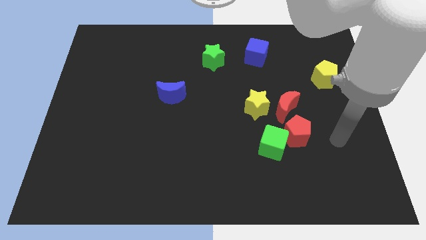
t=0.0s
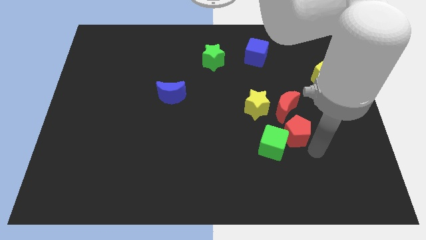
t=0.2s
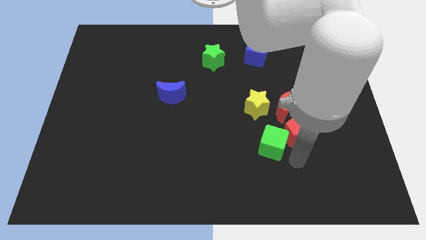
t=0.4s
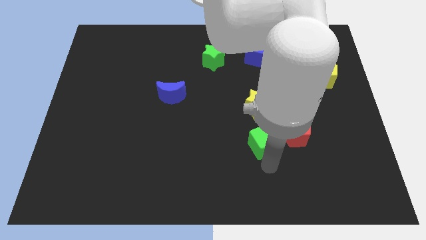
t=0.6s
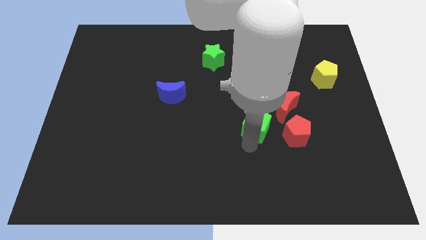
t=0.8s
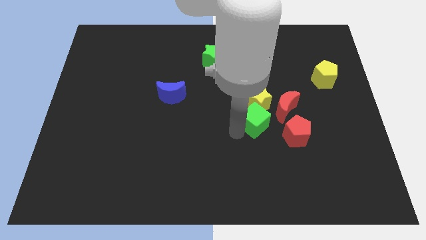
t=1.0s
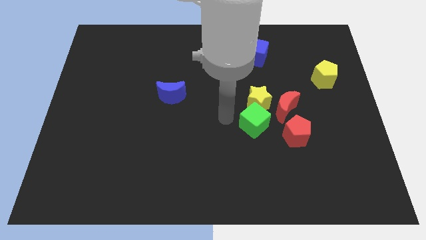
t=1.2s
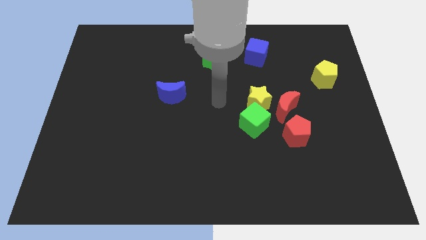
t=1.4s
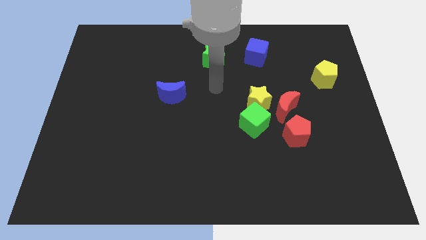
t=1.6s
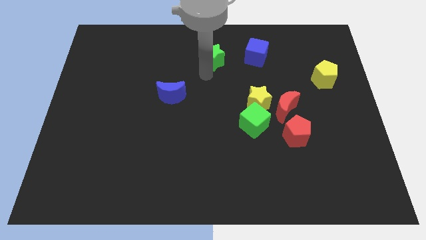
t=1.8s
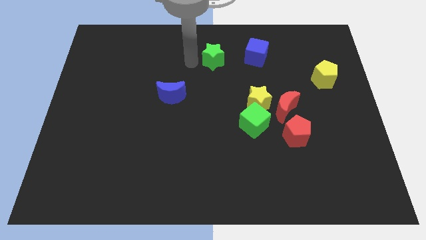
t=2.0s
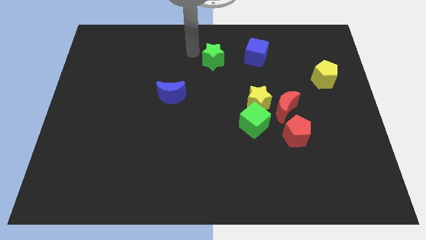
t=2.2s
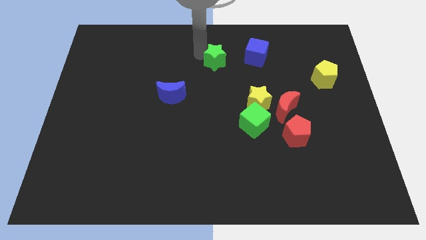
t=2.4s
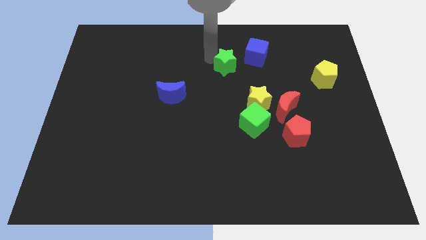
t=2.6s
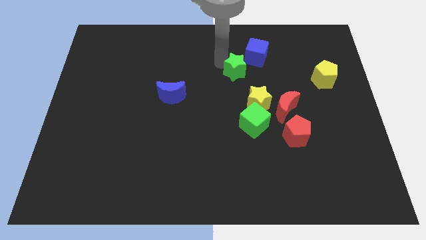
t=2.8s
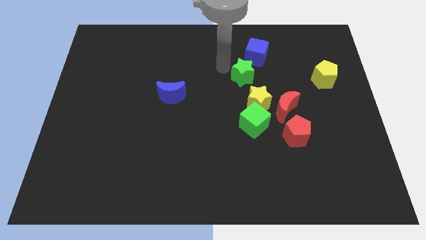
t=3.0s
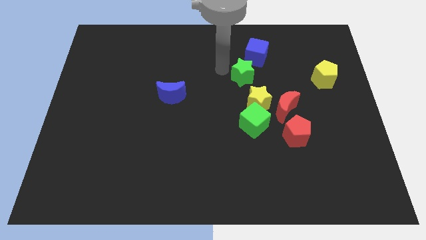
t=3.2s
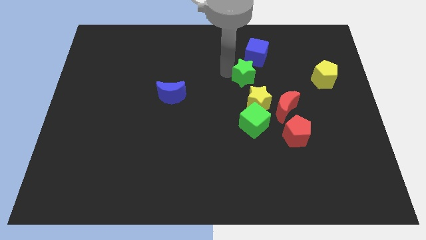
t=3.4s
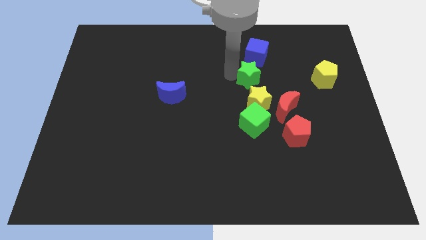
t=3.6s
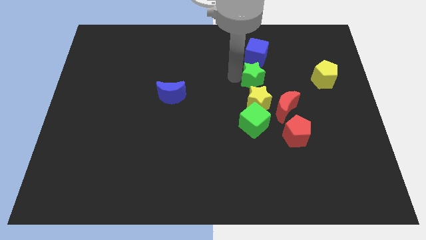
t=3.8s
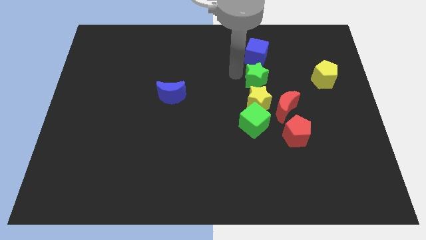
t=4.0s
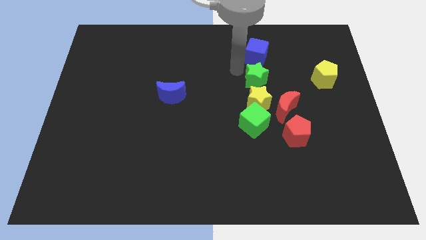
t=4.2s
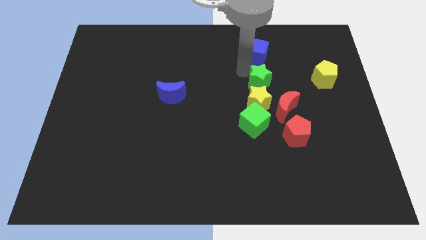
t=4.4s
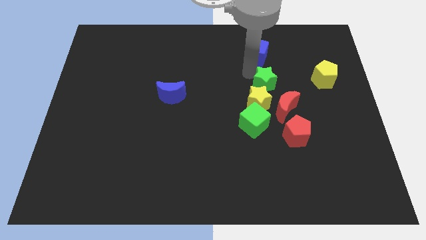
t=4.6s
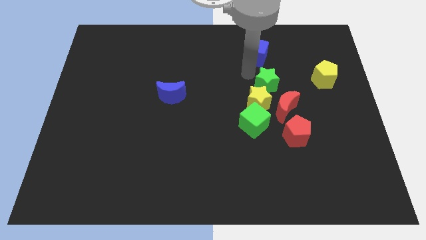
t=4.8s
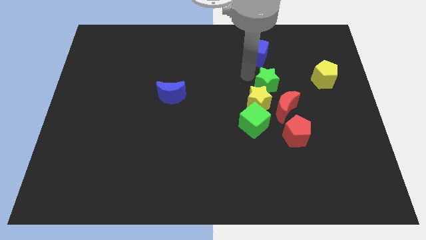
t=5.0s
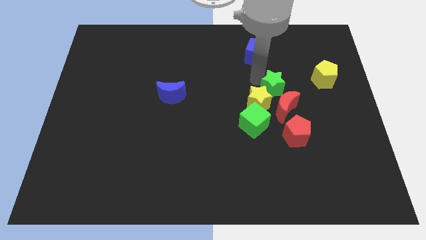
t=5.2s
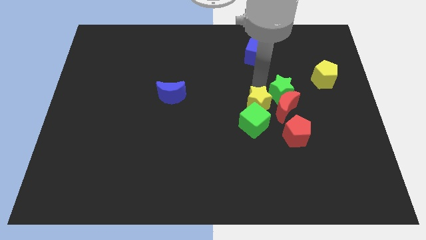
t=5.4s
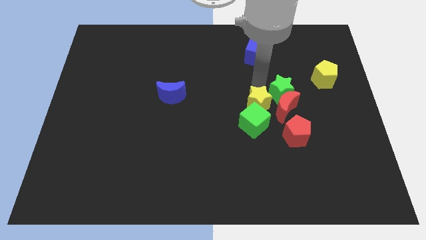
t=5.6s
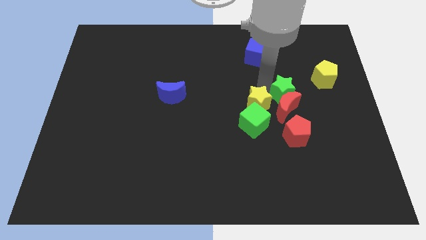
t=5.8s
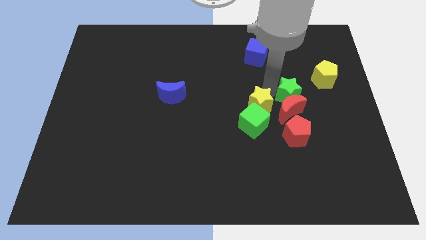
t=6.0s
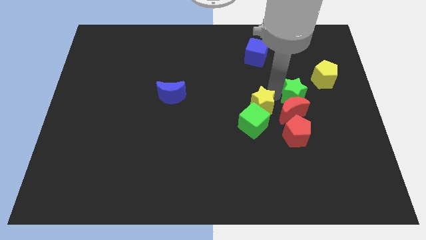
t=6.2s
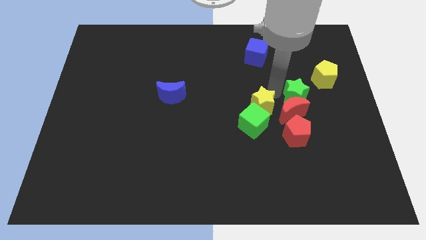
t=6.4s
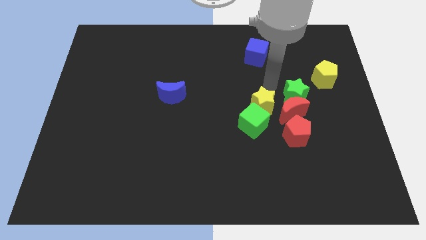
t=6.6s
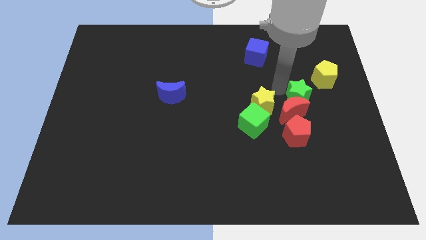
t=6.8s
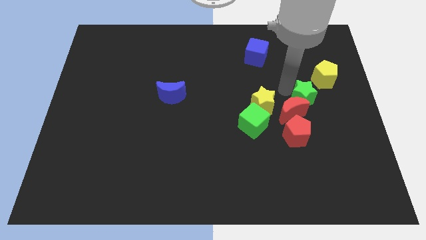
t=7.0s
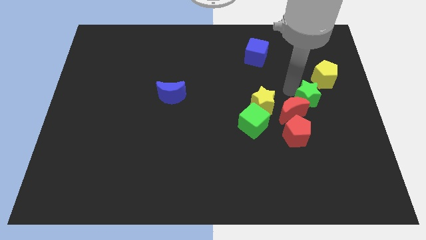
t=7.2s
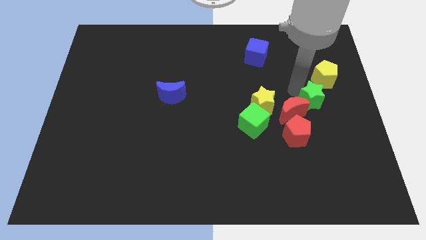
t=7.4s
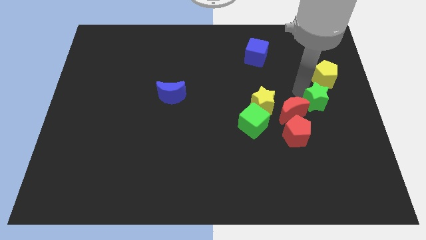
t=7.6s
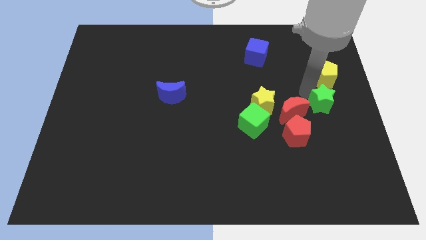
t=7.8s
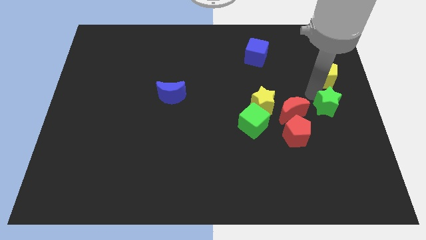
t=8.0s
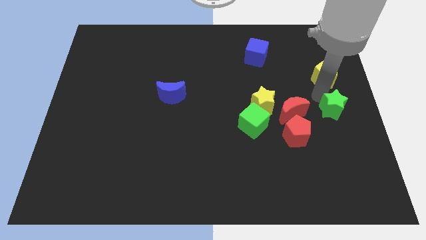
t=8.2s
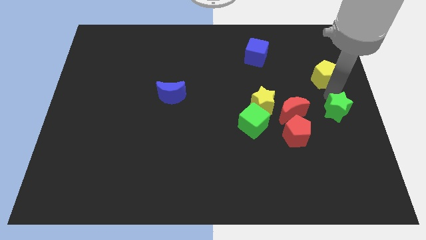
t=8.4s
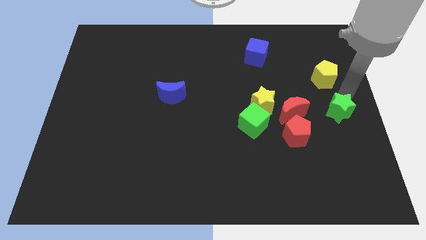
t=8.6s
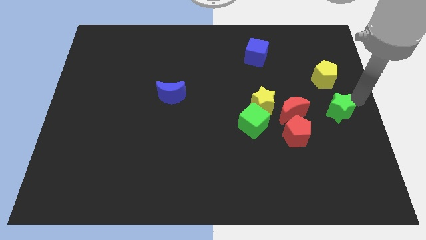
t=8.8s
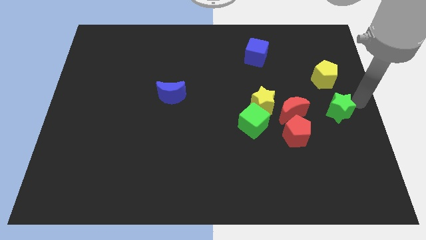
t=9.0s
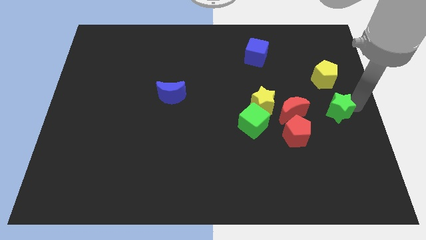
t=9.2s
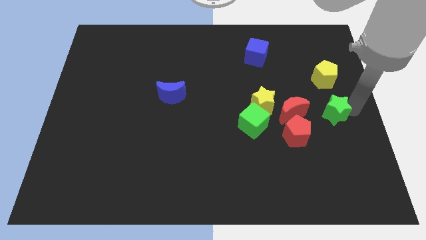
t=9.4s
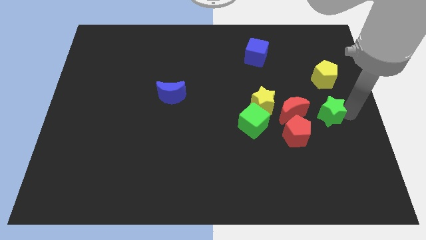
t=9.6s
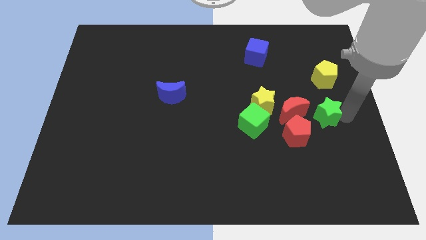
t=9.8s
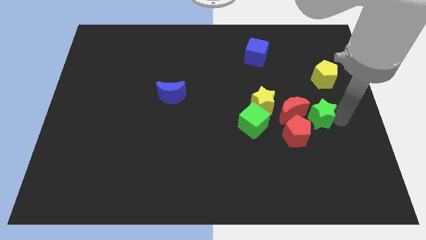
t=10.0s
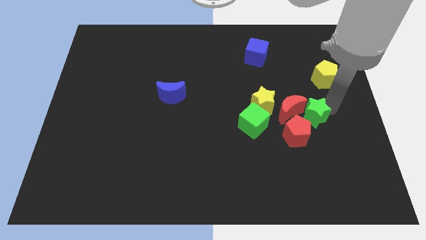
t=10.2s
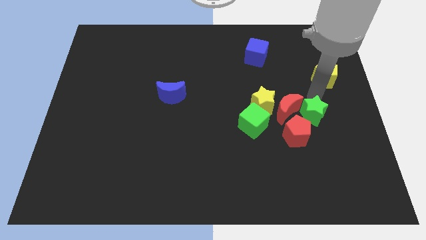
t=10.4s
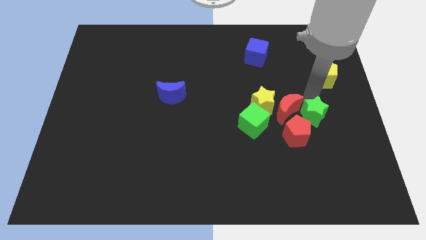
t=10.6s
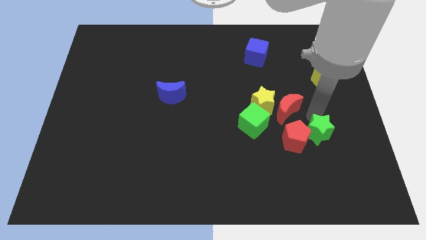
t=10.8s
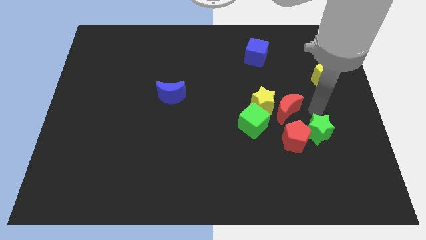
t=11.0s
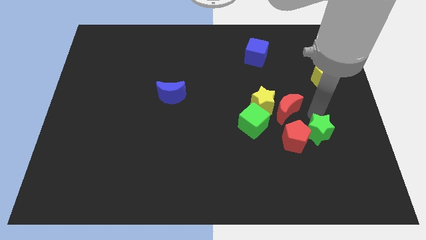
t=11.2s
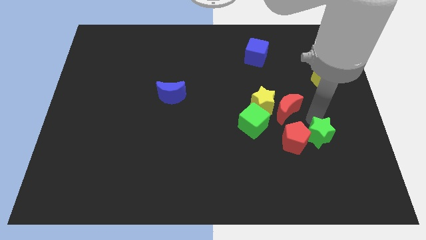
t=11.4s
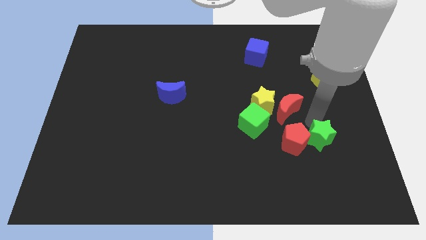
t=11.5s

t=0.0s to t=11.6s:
push the green star to the bottom right side of the red pentagon

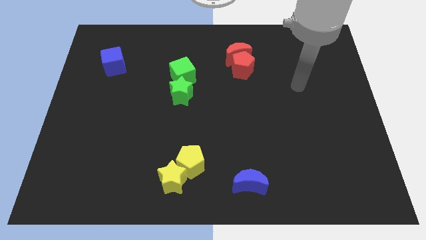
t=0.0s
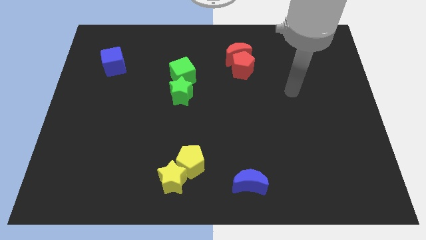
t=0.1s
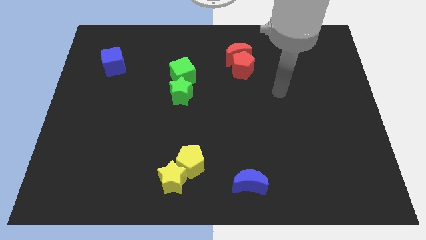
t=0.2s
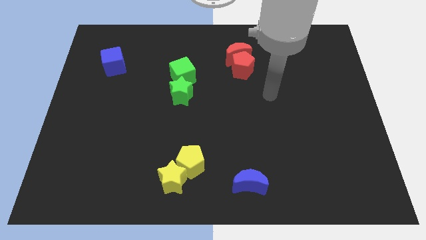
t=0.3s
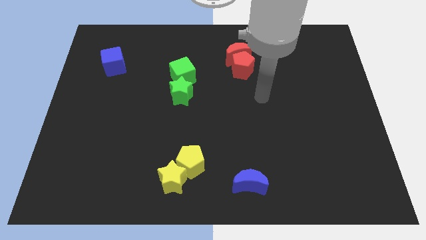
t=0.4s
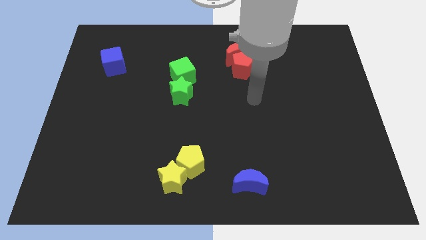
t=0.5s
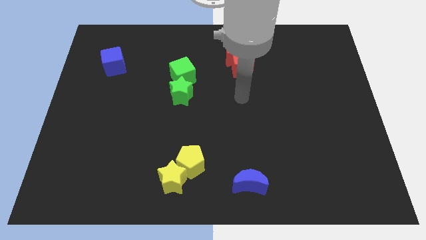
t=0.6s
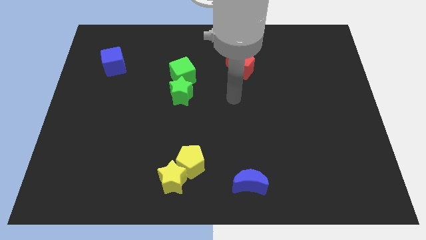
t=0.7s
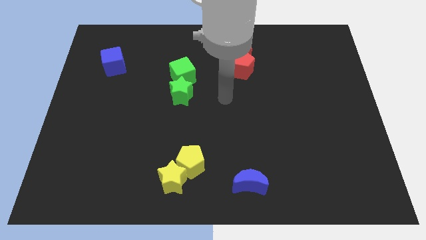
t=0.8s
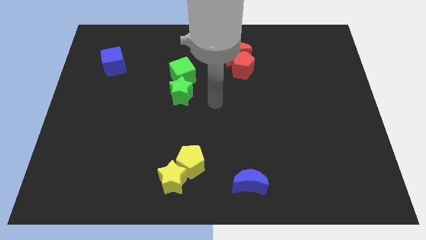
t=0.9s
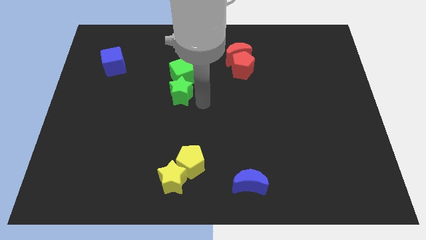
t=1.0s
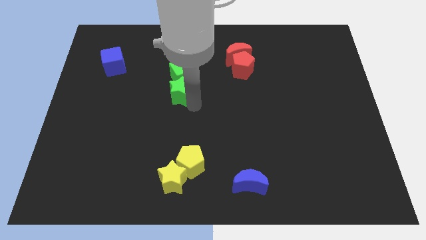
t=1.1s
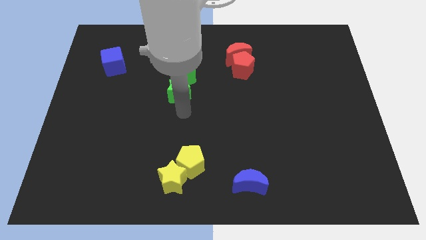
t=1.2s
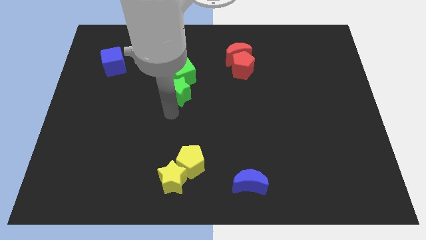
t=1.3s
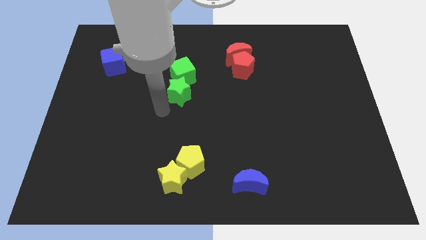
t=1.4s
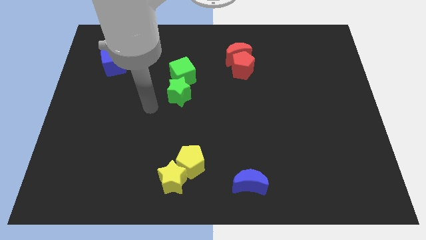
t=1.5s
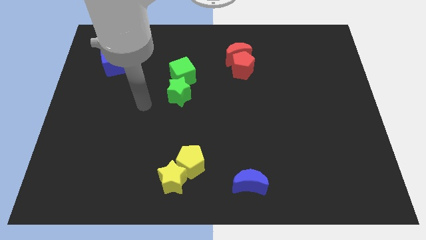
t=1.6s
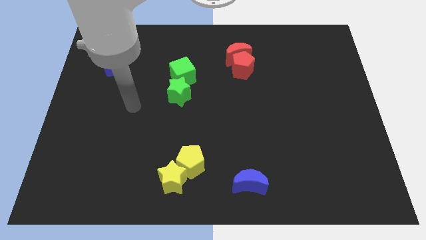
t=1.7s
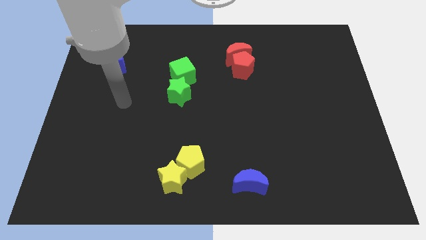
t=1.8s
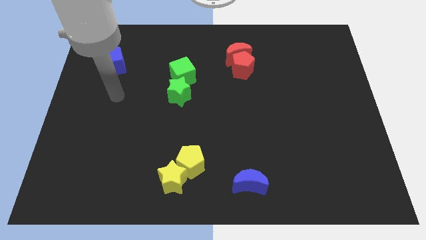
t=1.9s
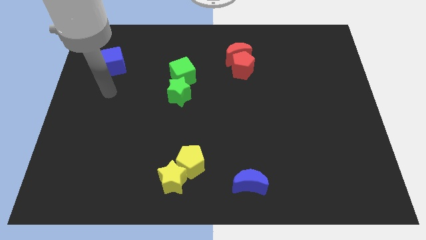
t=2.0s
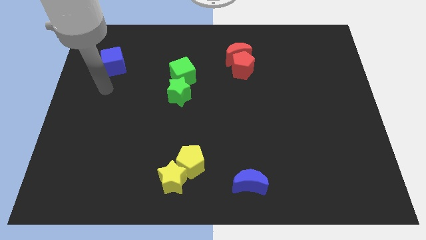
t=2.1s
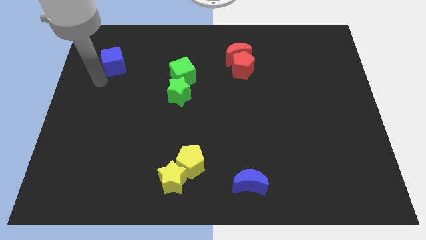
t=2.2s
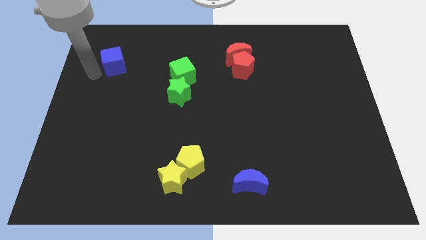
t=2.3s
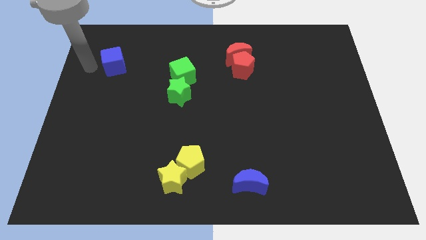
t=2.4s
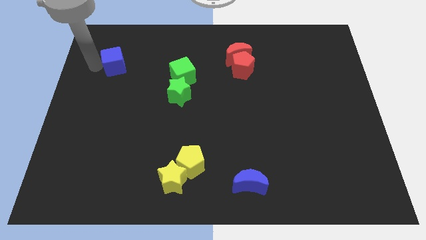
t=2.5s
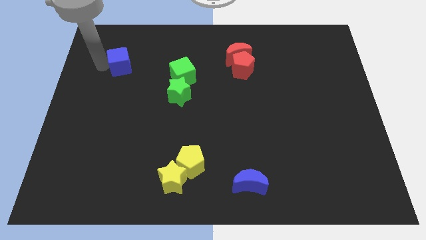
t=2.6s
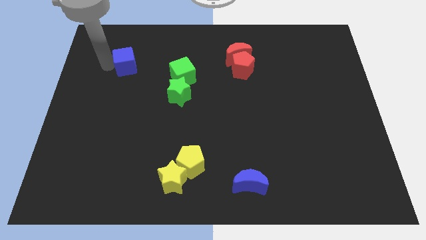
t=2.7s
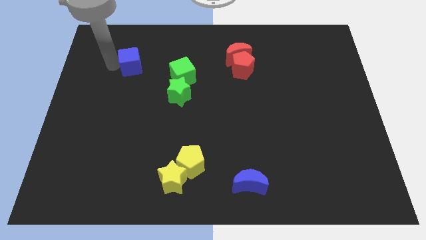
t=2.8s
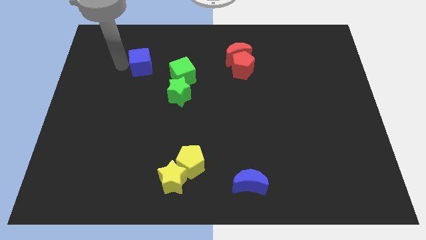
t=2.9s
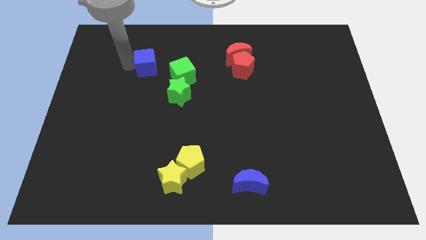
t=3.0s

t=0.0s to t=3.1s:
move the blue cube to the top left of the green cube
